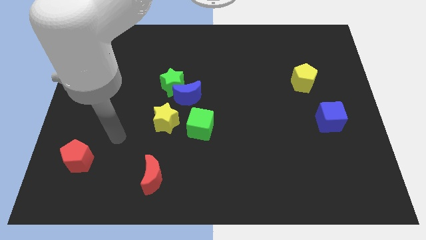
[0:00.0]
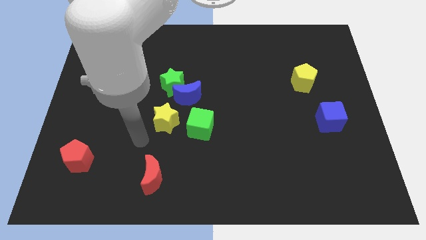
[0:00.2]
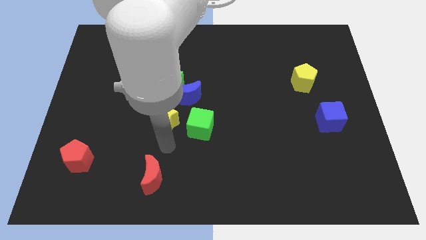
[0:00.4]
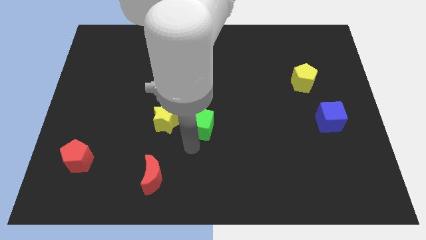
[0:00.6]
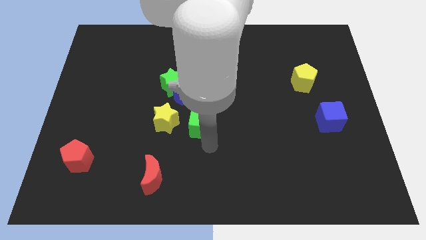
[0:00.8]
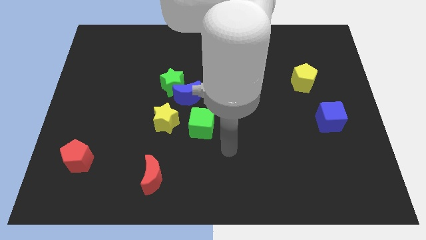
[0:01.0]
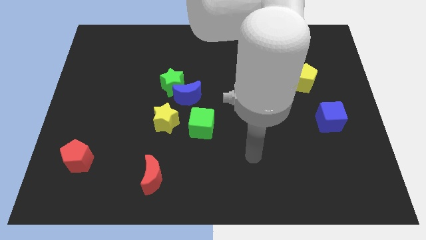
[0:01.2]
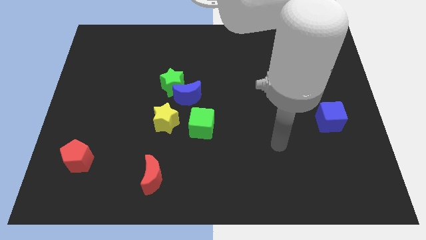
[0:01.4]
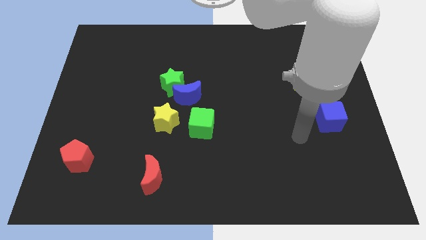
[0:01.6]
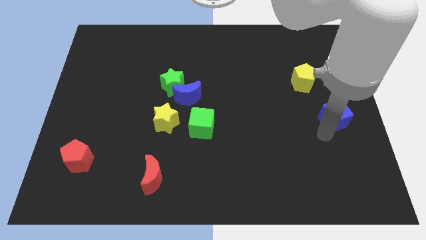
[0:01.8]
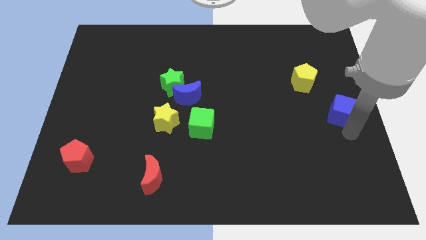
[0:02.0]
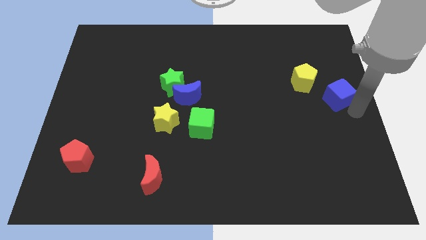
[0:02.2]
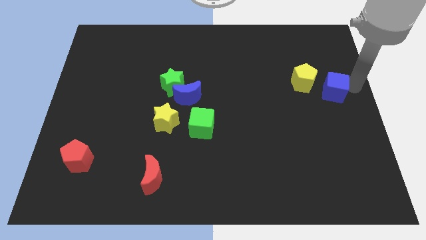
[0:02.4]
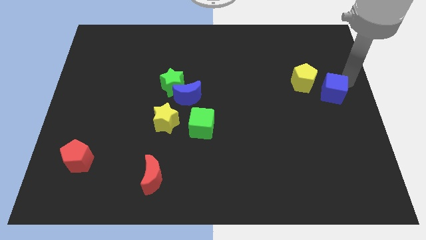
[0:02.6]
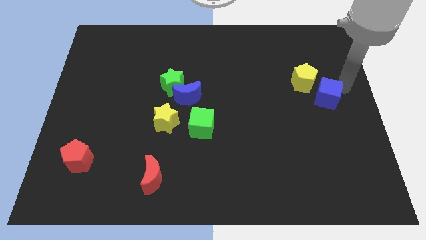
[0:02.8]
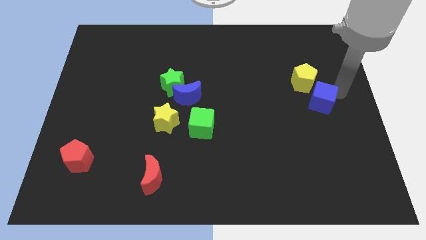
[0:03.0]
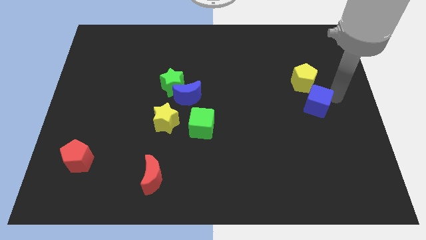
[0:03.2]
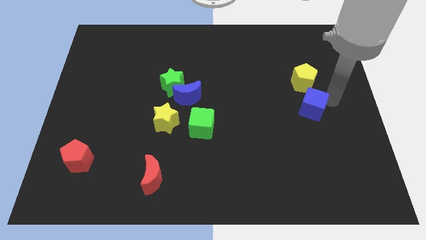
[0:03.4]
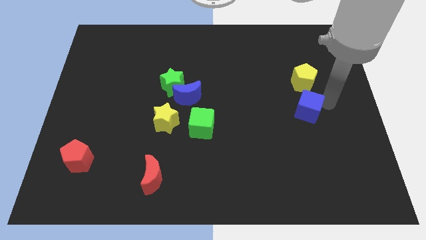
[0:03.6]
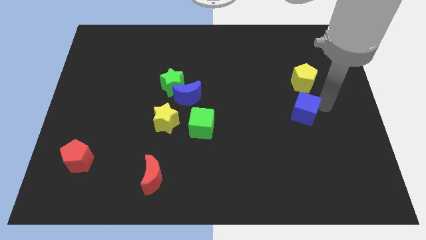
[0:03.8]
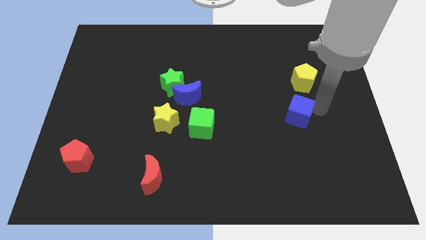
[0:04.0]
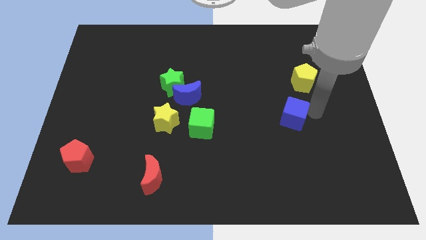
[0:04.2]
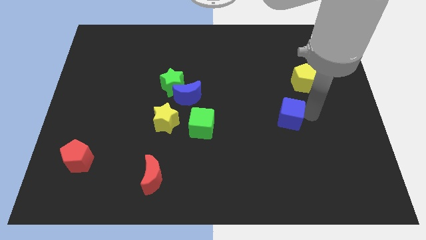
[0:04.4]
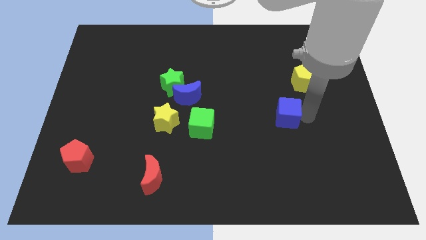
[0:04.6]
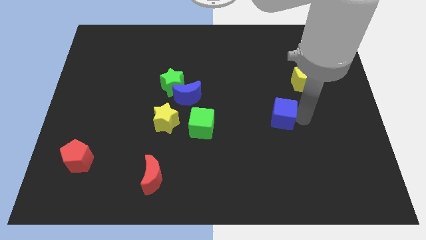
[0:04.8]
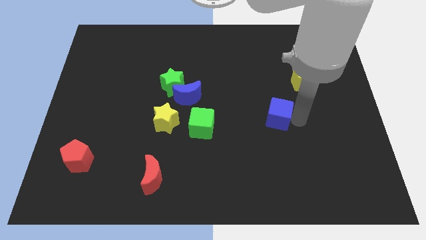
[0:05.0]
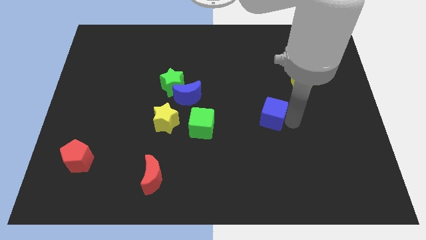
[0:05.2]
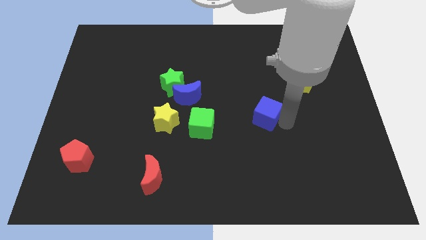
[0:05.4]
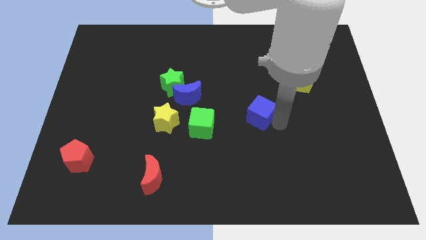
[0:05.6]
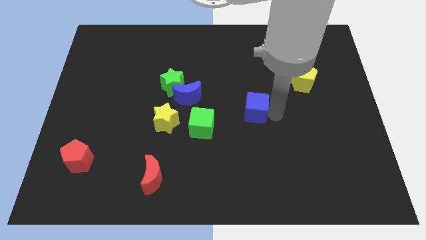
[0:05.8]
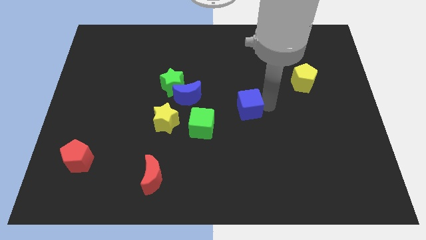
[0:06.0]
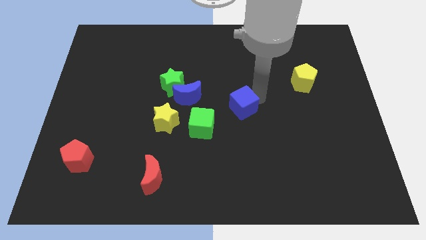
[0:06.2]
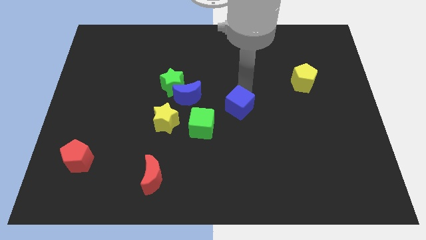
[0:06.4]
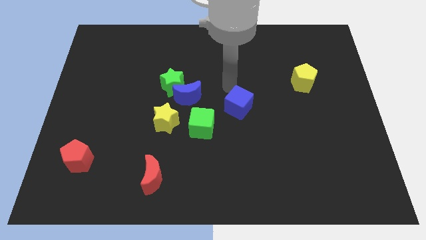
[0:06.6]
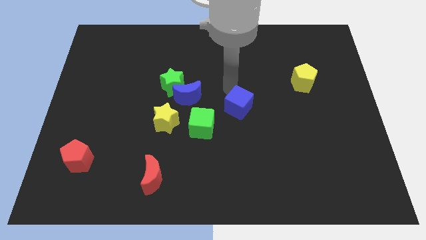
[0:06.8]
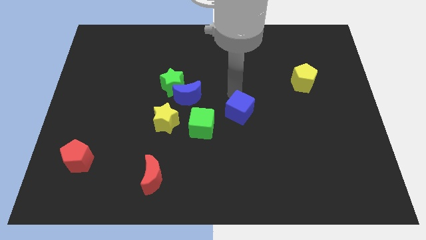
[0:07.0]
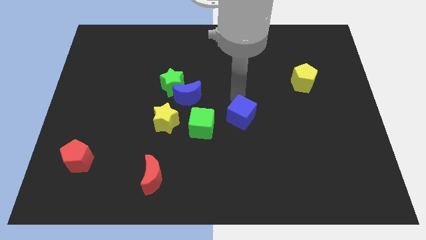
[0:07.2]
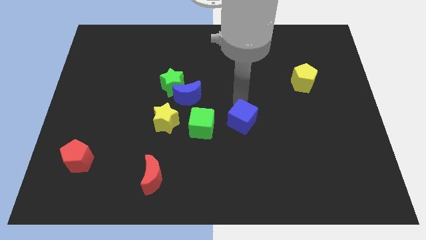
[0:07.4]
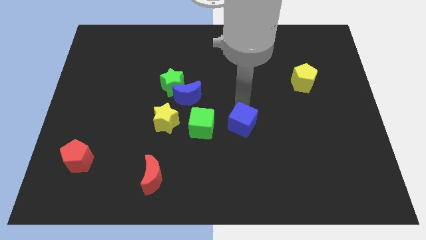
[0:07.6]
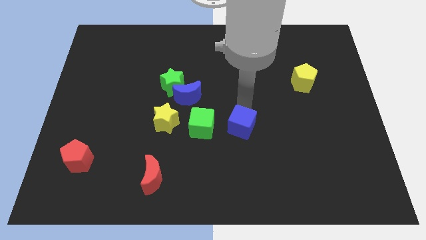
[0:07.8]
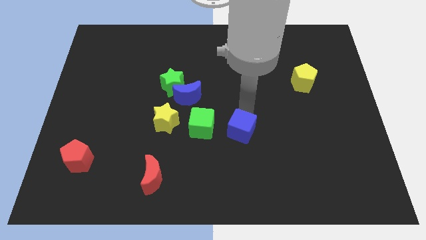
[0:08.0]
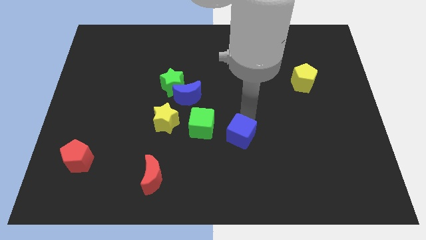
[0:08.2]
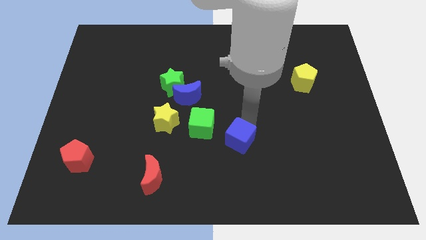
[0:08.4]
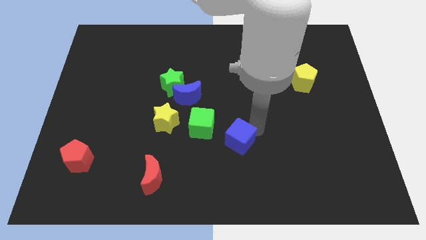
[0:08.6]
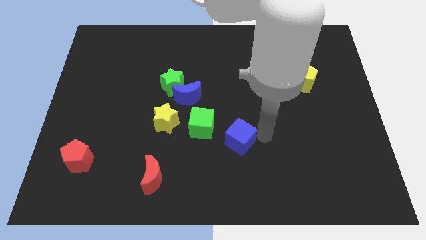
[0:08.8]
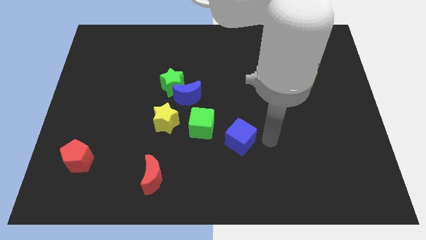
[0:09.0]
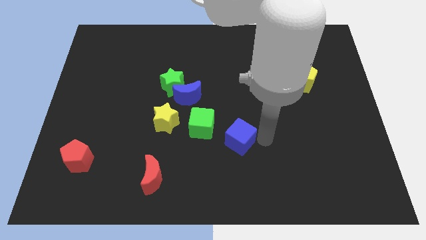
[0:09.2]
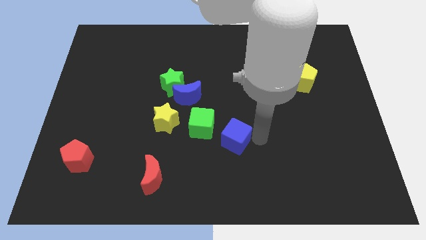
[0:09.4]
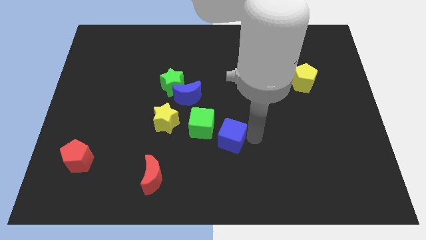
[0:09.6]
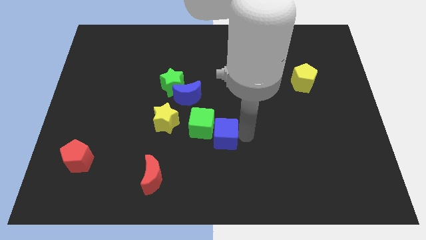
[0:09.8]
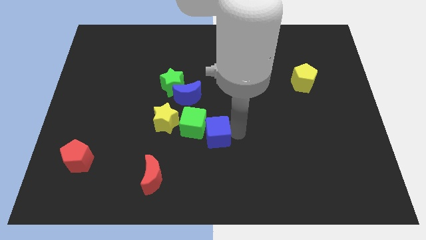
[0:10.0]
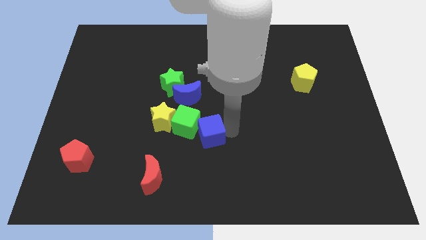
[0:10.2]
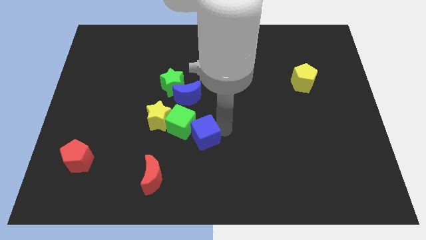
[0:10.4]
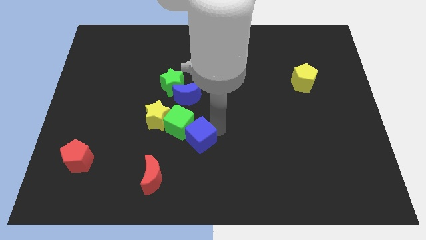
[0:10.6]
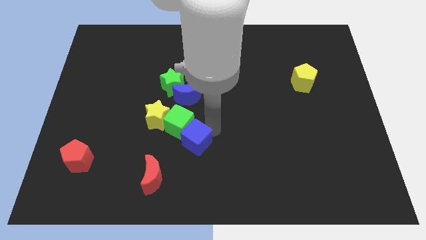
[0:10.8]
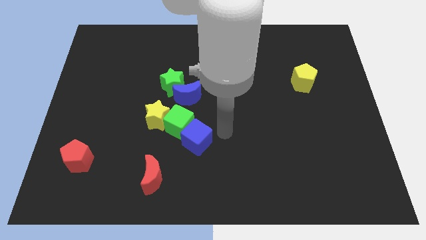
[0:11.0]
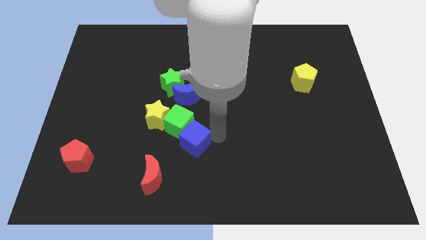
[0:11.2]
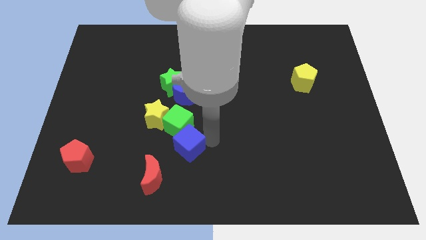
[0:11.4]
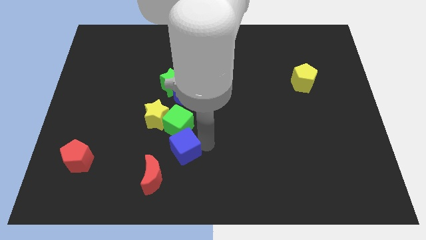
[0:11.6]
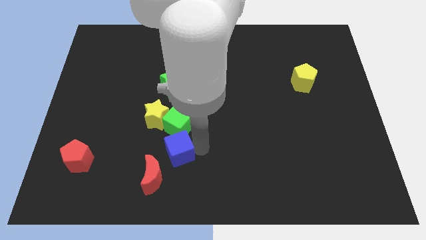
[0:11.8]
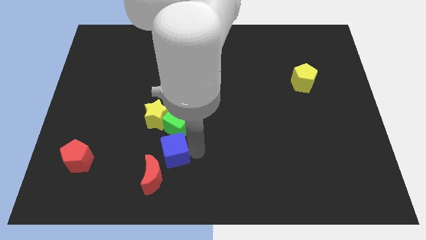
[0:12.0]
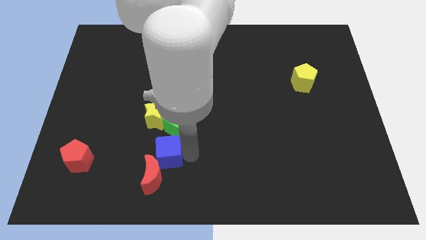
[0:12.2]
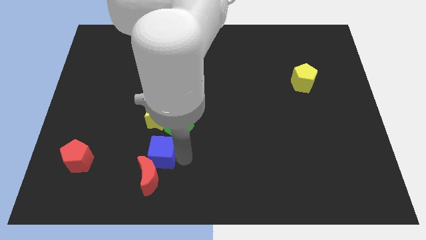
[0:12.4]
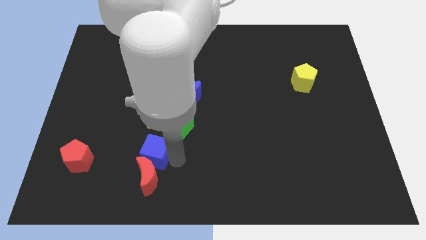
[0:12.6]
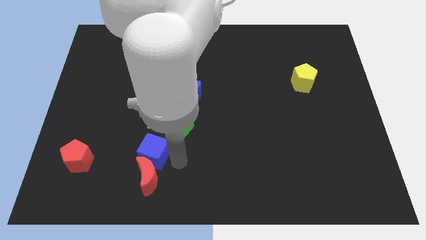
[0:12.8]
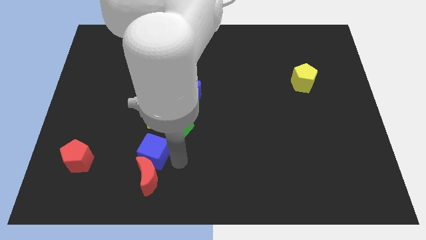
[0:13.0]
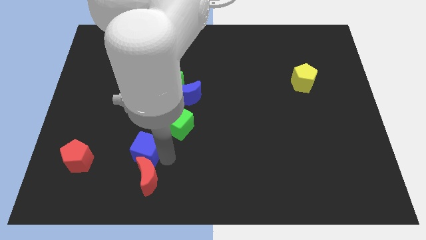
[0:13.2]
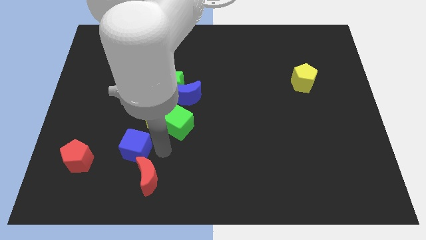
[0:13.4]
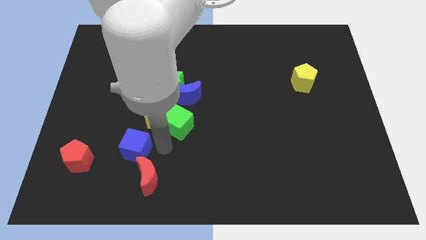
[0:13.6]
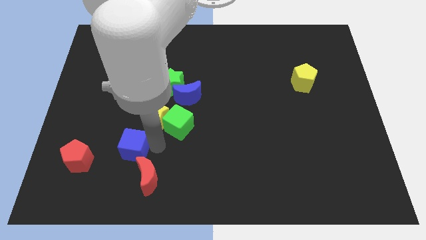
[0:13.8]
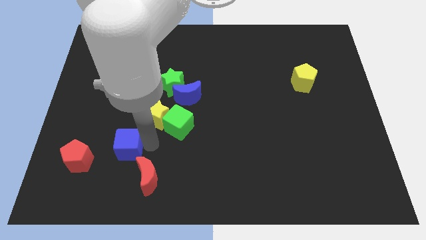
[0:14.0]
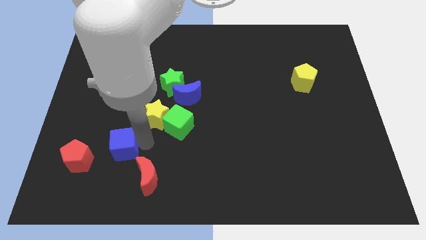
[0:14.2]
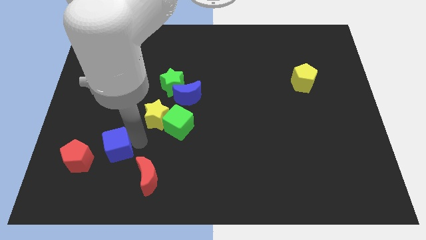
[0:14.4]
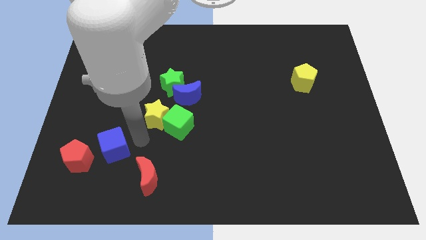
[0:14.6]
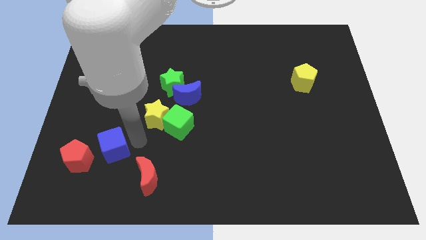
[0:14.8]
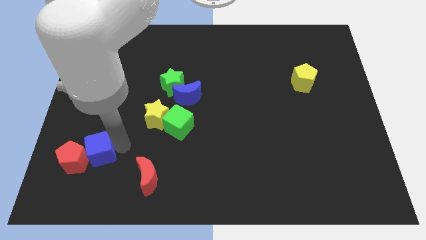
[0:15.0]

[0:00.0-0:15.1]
slide the blue cube next to the red pentagon

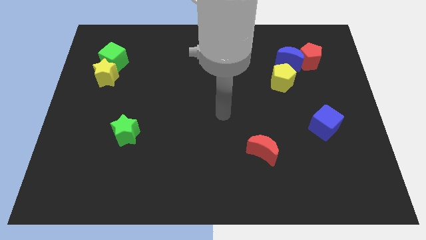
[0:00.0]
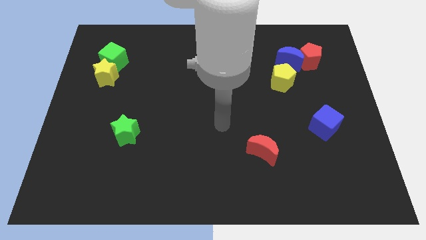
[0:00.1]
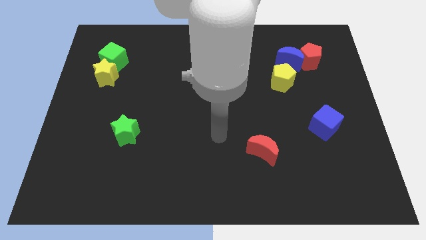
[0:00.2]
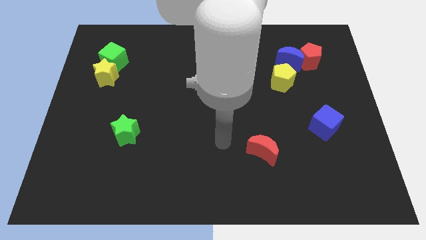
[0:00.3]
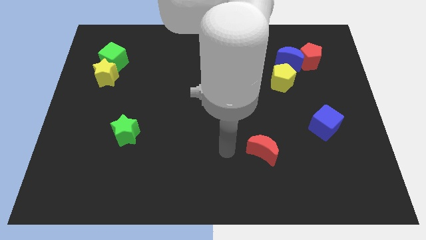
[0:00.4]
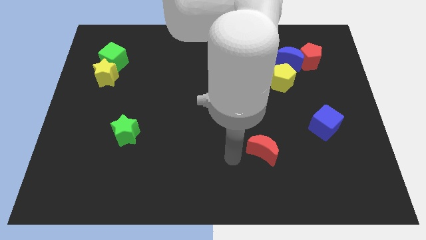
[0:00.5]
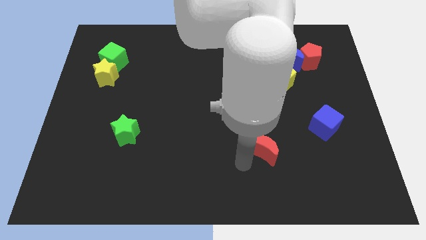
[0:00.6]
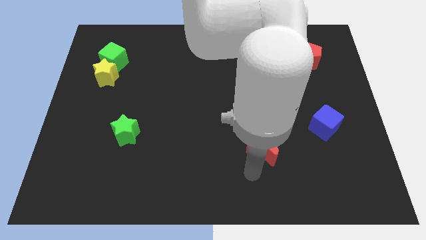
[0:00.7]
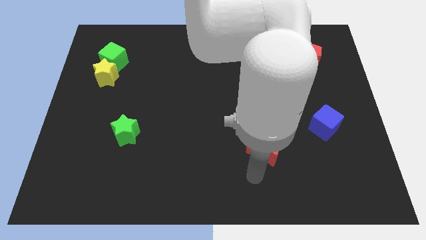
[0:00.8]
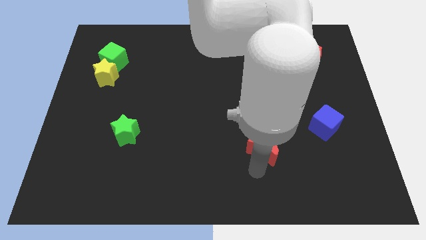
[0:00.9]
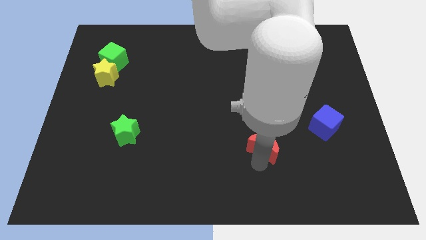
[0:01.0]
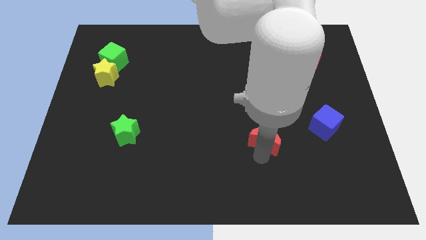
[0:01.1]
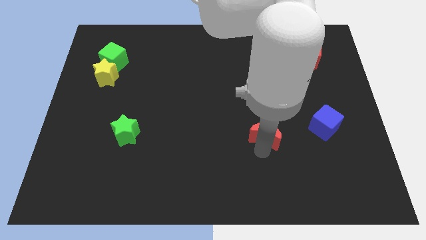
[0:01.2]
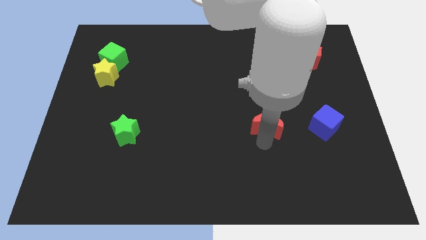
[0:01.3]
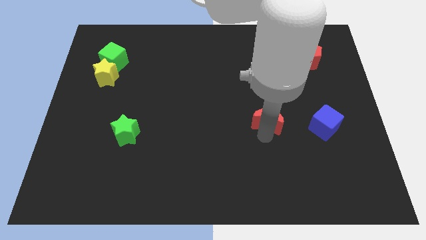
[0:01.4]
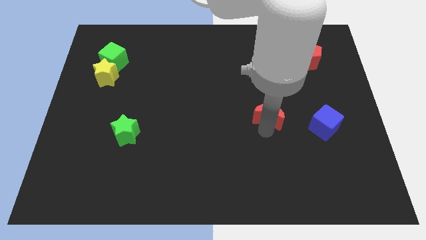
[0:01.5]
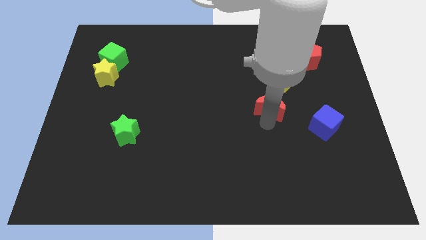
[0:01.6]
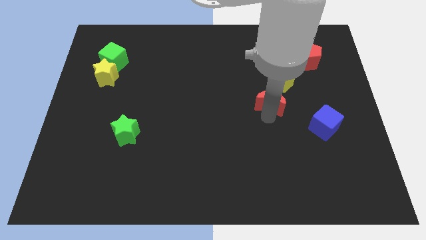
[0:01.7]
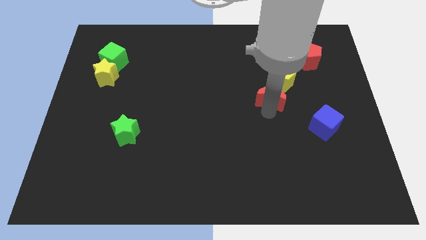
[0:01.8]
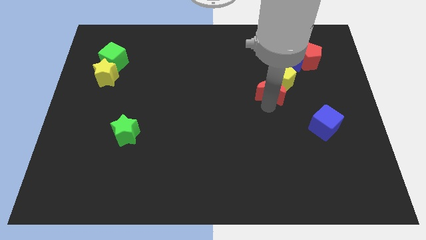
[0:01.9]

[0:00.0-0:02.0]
put the red moon towards the yellow pentagon
